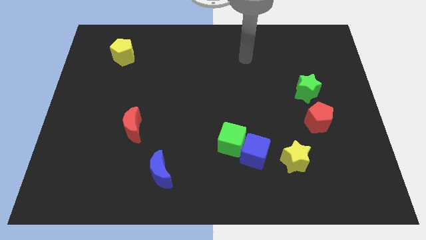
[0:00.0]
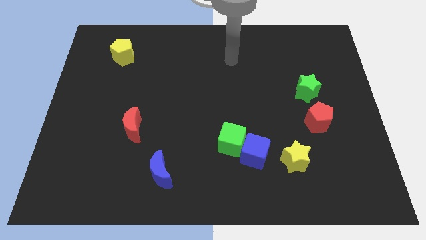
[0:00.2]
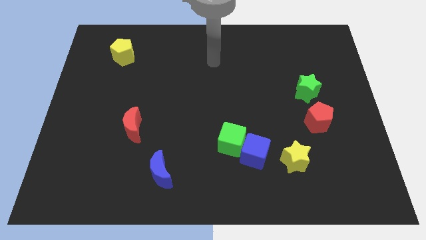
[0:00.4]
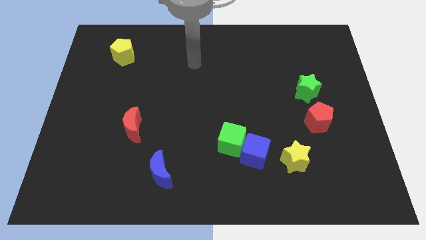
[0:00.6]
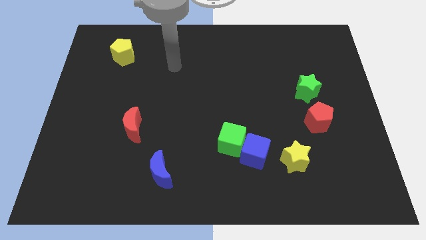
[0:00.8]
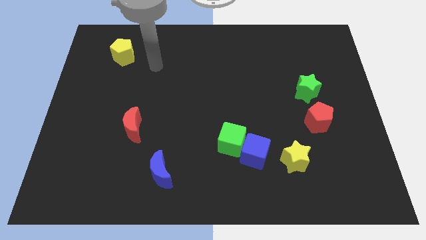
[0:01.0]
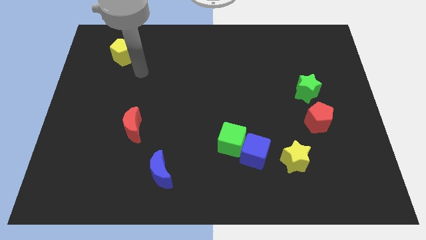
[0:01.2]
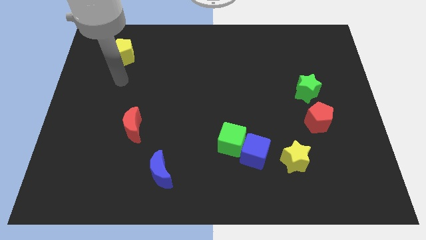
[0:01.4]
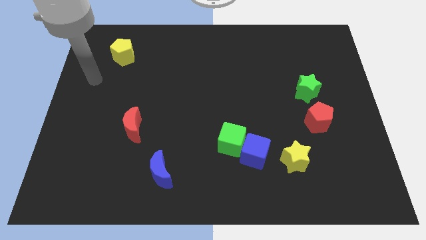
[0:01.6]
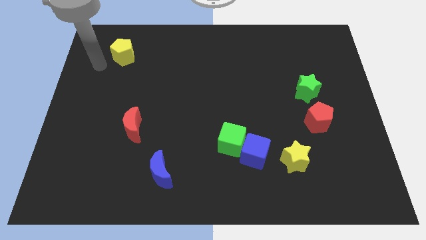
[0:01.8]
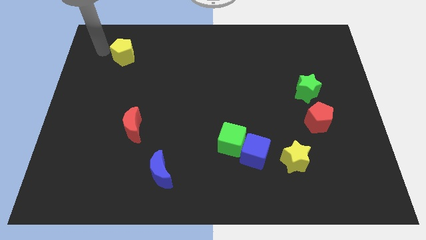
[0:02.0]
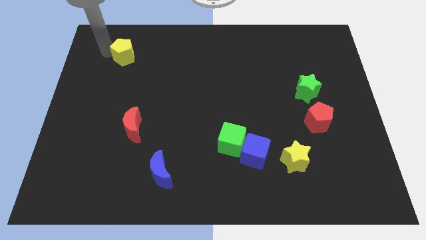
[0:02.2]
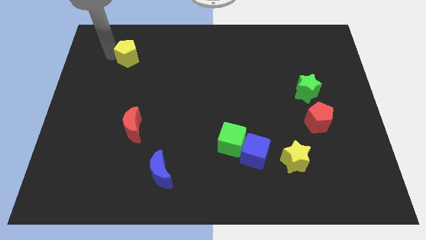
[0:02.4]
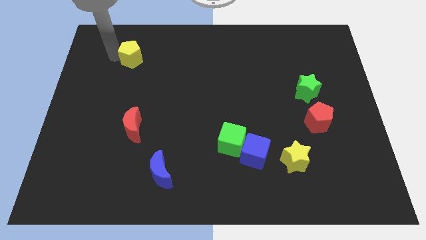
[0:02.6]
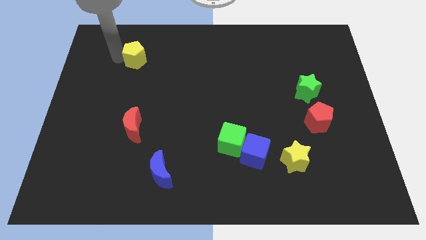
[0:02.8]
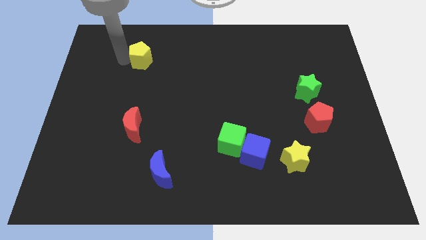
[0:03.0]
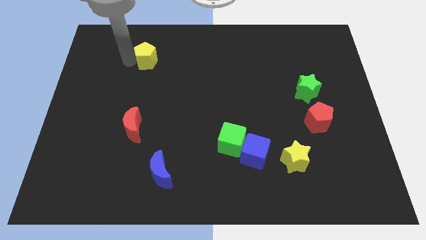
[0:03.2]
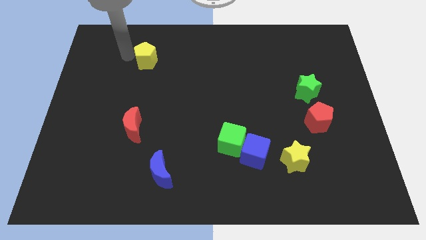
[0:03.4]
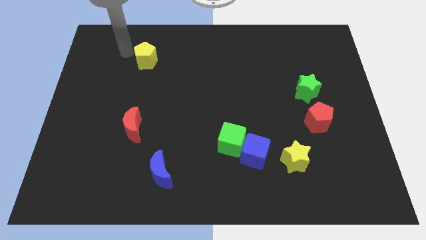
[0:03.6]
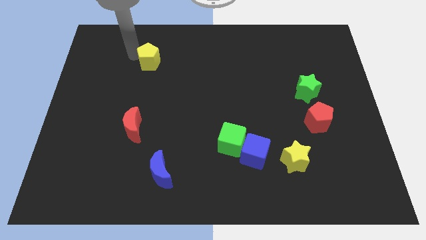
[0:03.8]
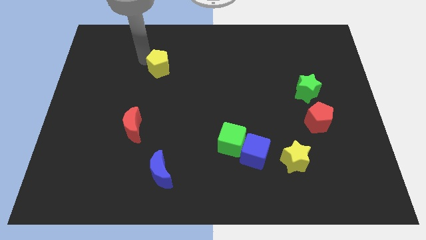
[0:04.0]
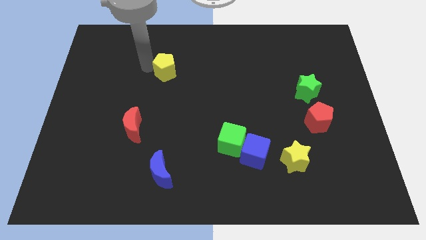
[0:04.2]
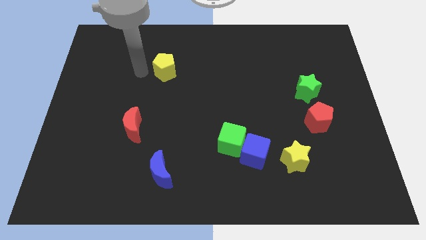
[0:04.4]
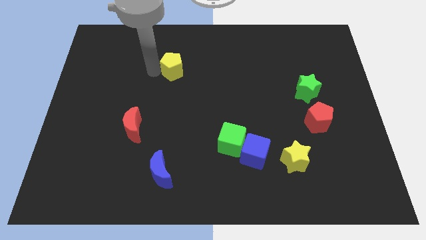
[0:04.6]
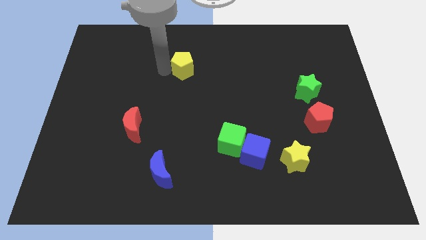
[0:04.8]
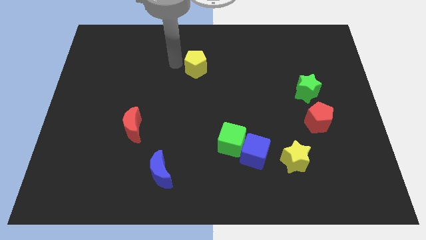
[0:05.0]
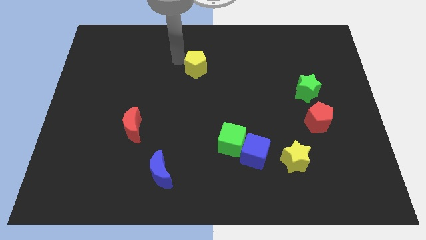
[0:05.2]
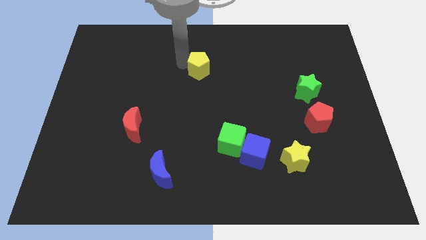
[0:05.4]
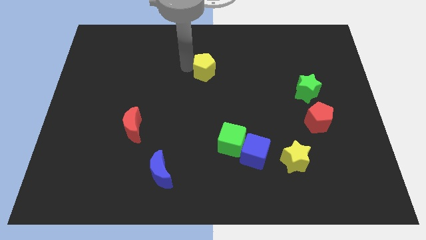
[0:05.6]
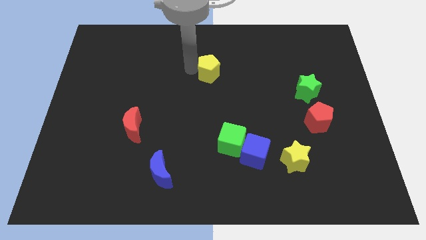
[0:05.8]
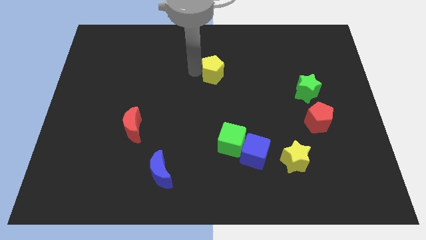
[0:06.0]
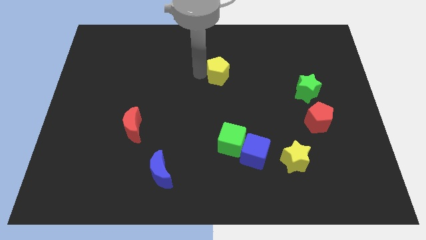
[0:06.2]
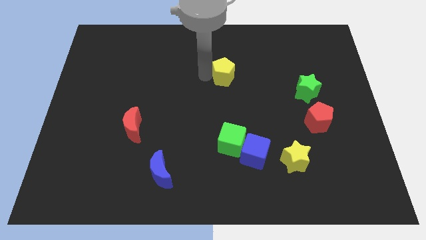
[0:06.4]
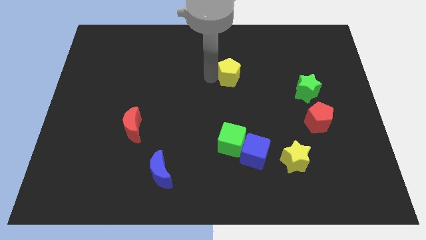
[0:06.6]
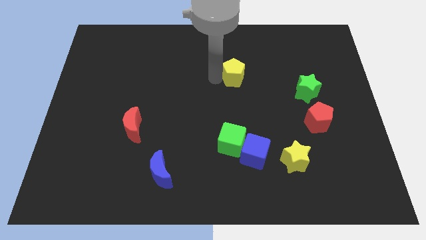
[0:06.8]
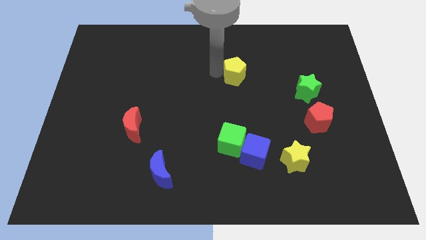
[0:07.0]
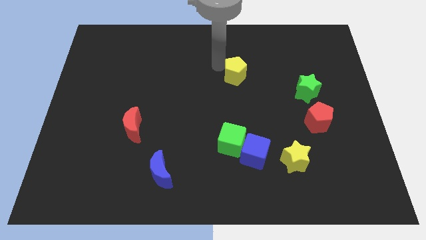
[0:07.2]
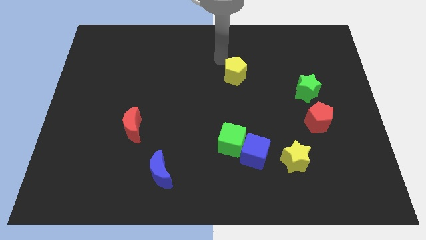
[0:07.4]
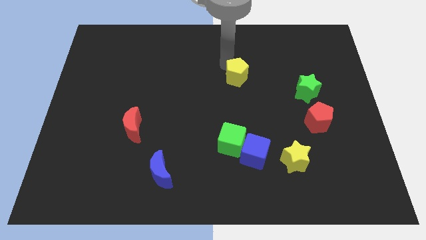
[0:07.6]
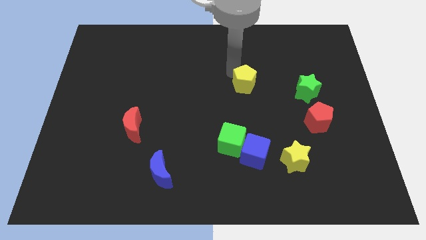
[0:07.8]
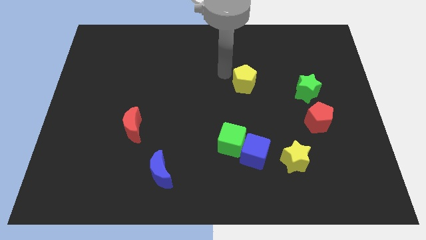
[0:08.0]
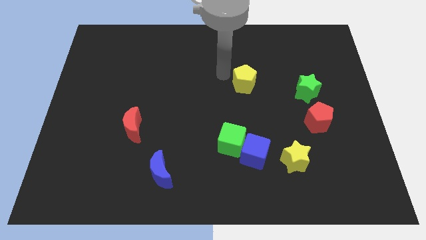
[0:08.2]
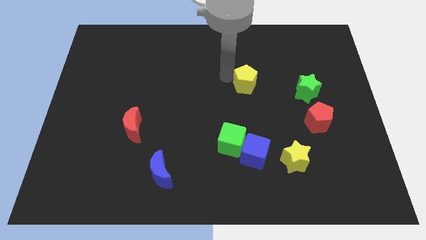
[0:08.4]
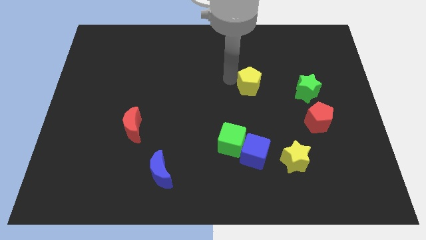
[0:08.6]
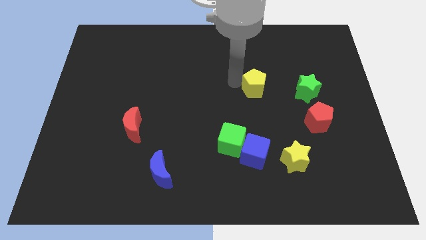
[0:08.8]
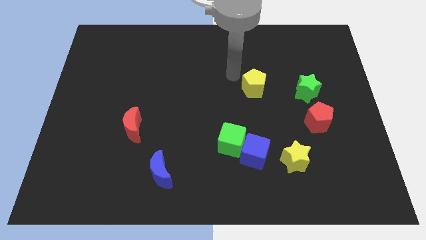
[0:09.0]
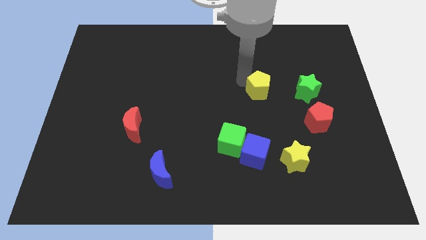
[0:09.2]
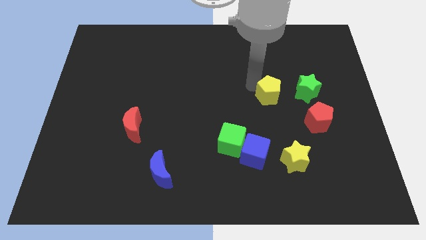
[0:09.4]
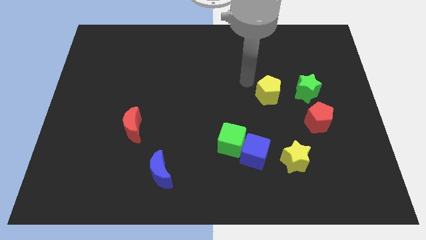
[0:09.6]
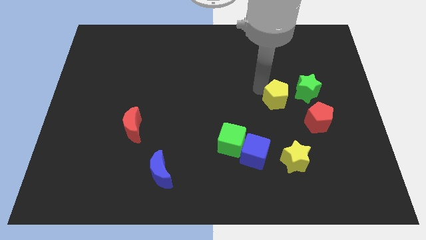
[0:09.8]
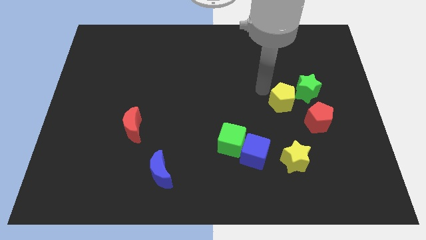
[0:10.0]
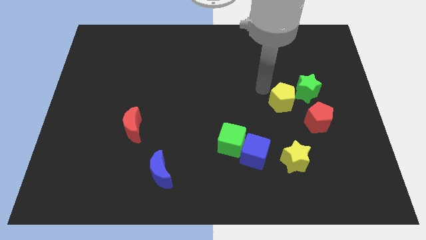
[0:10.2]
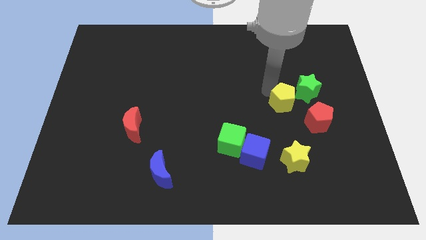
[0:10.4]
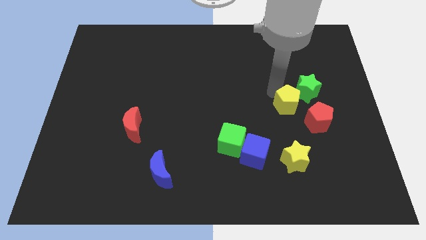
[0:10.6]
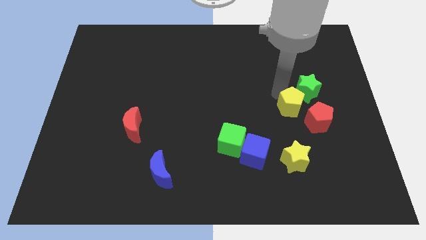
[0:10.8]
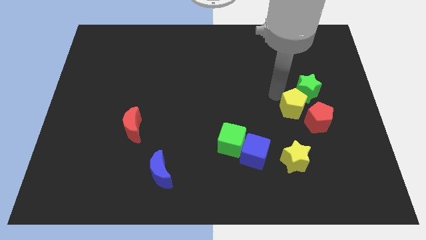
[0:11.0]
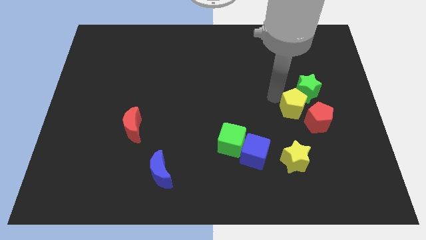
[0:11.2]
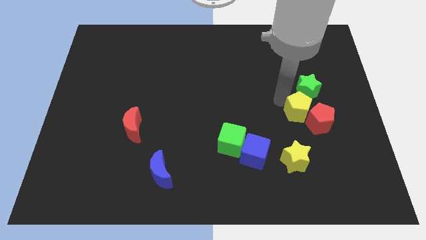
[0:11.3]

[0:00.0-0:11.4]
push the yellow pentagon close to the red pentagon

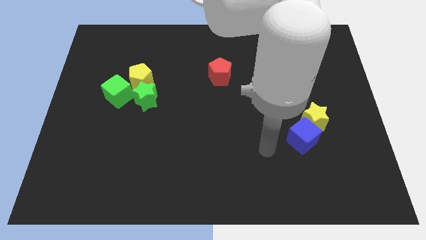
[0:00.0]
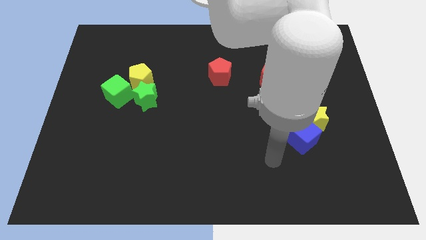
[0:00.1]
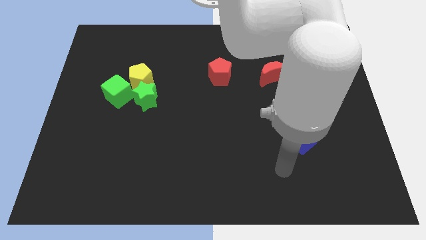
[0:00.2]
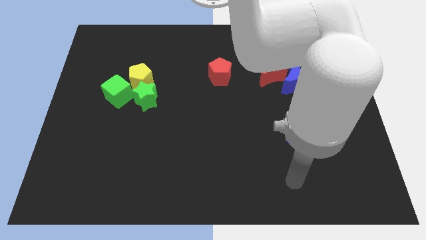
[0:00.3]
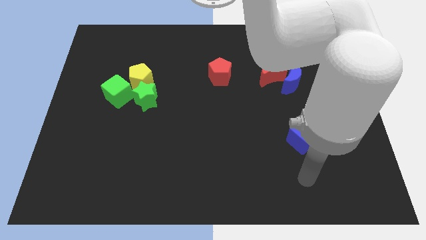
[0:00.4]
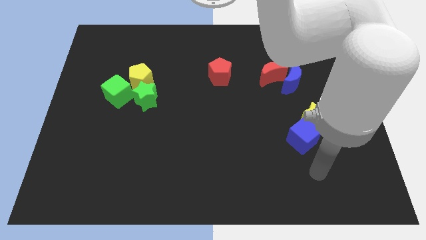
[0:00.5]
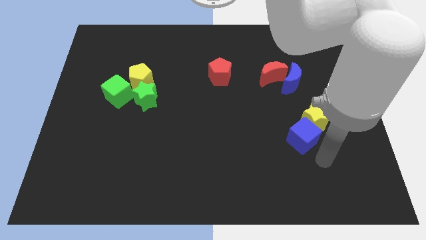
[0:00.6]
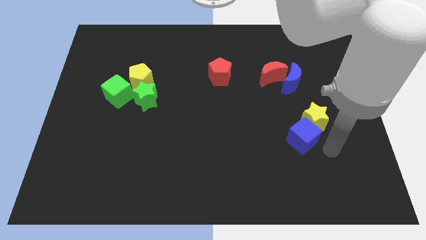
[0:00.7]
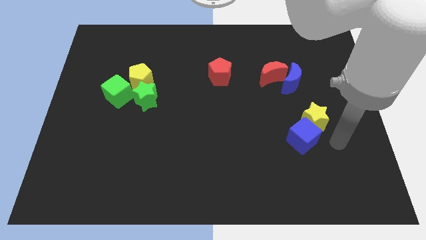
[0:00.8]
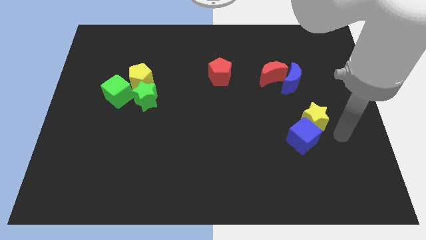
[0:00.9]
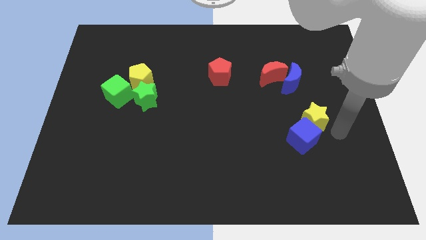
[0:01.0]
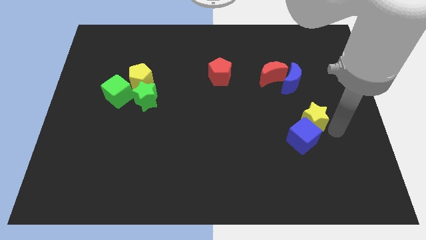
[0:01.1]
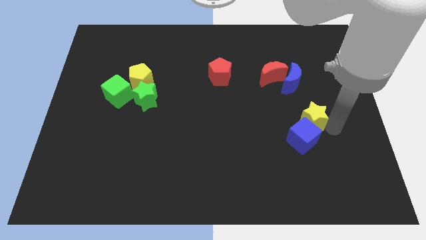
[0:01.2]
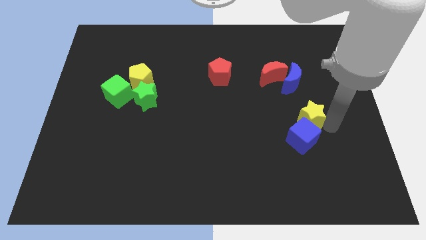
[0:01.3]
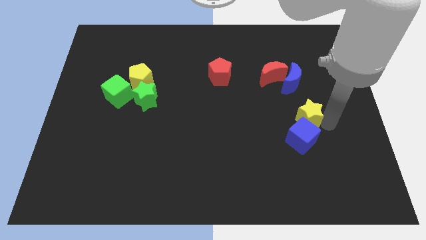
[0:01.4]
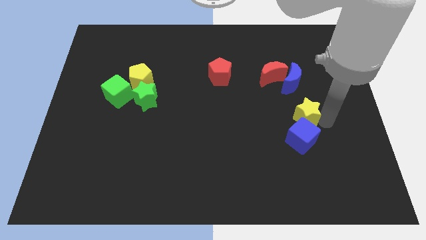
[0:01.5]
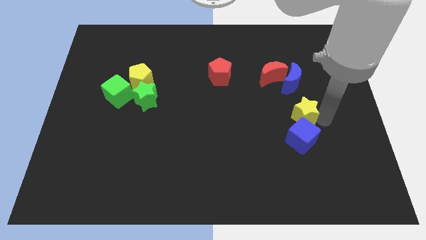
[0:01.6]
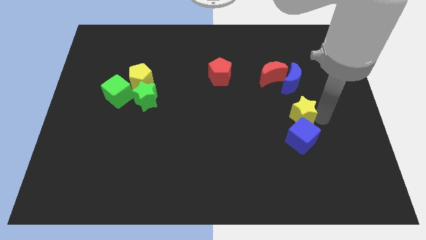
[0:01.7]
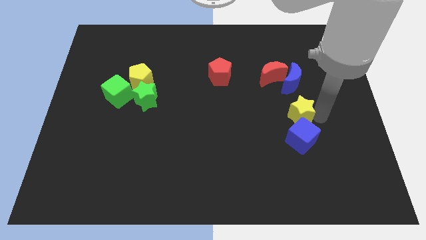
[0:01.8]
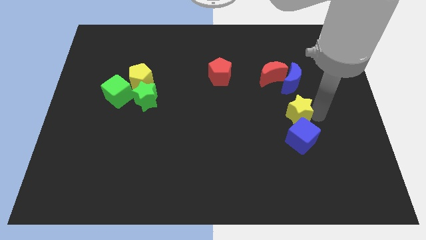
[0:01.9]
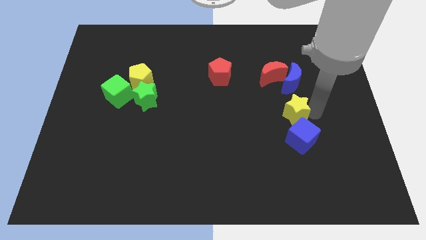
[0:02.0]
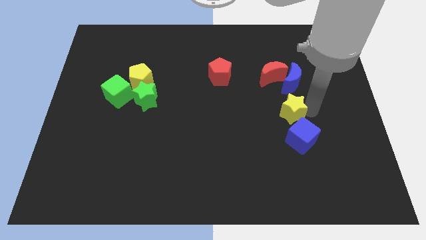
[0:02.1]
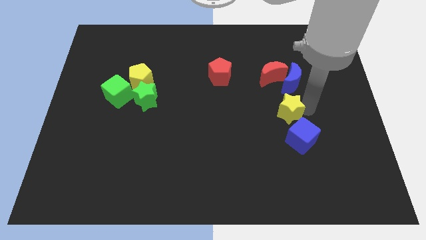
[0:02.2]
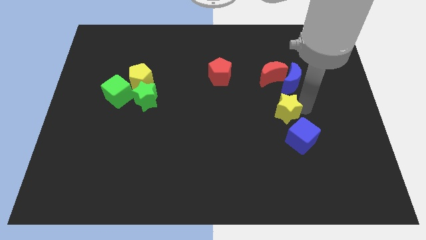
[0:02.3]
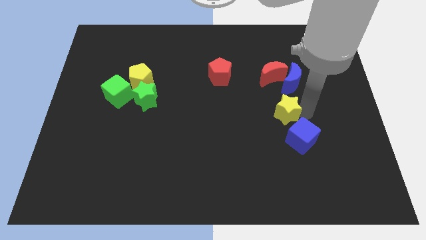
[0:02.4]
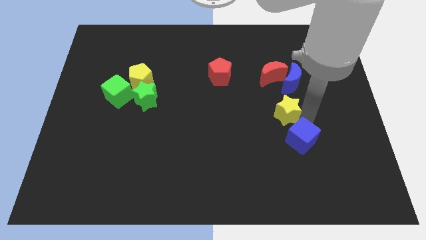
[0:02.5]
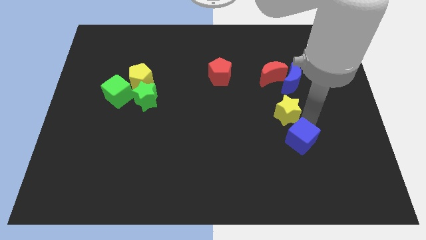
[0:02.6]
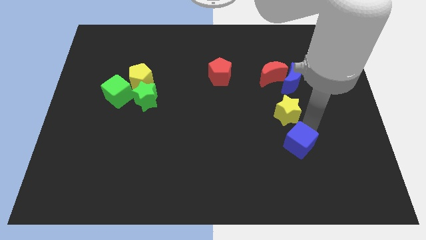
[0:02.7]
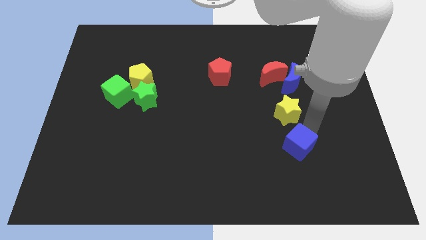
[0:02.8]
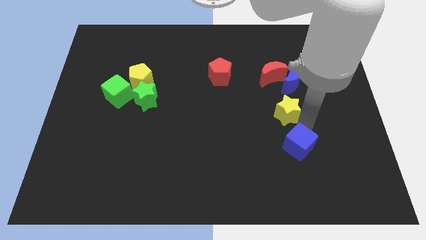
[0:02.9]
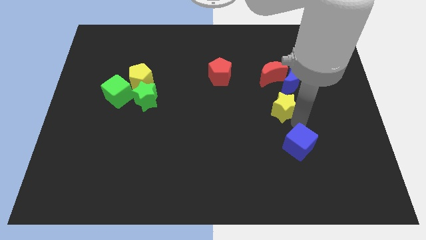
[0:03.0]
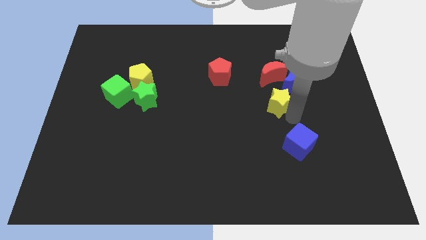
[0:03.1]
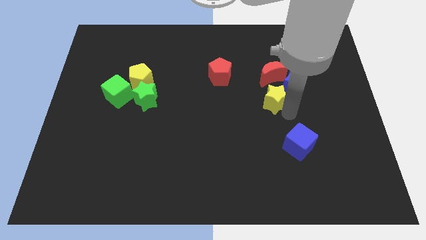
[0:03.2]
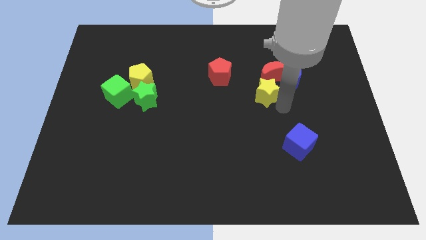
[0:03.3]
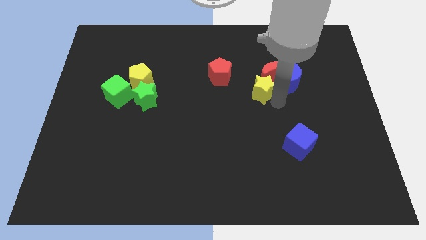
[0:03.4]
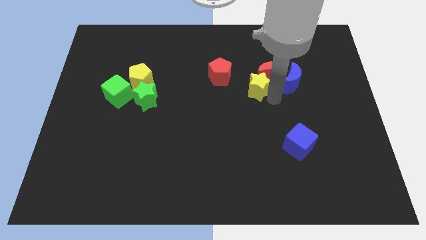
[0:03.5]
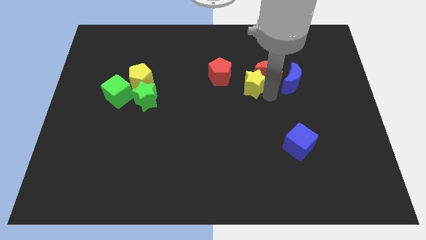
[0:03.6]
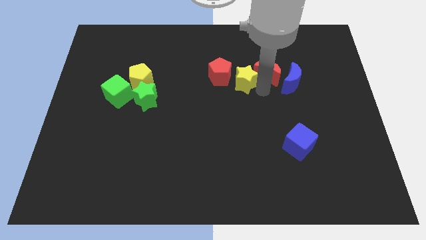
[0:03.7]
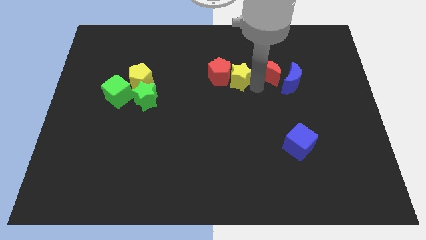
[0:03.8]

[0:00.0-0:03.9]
push the yellow star towards the red pentagon
